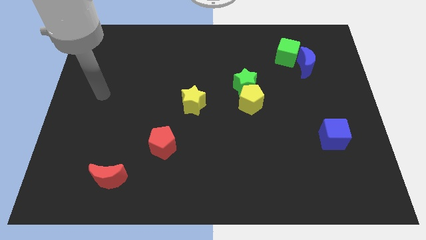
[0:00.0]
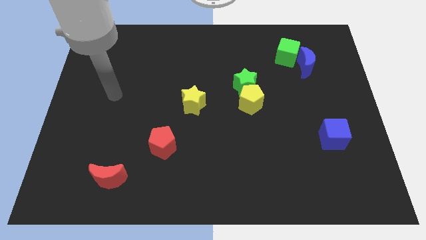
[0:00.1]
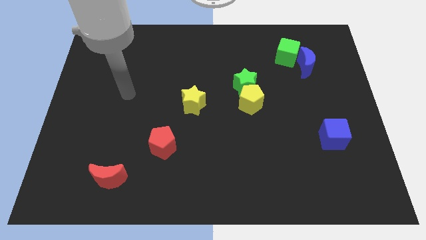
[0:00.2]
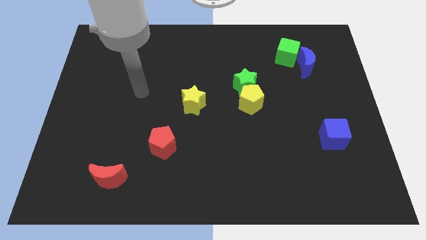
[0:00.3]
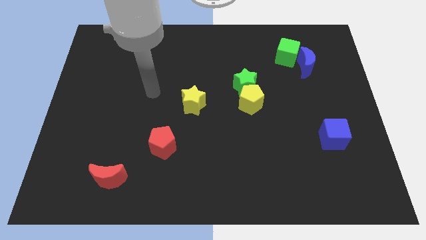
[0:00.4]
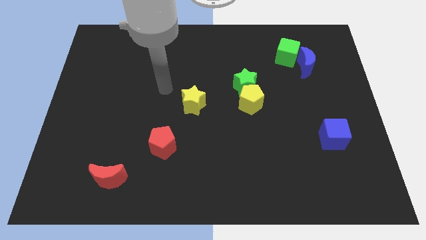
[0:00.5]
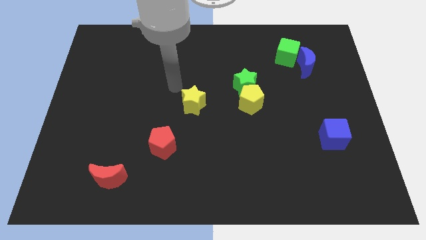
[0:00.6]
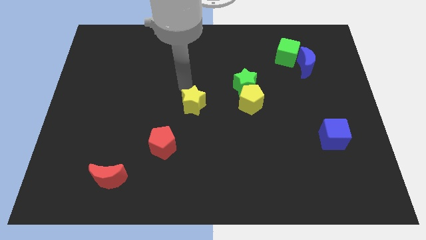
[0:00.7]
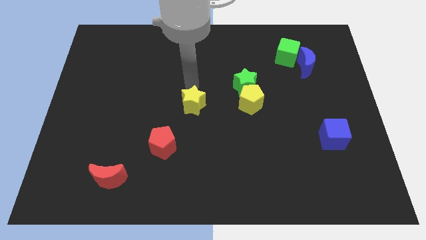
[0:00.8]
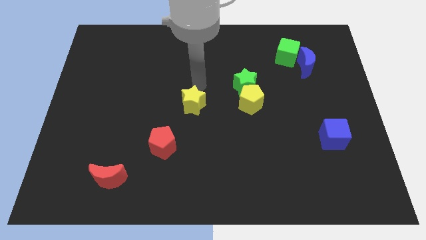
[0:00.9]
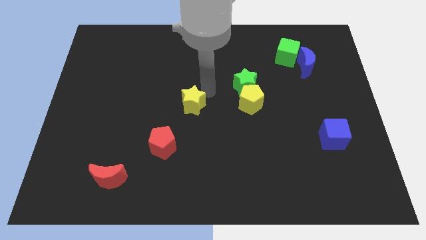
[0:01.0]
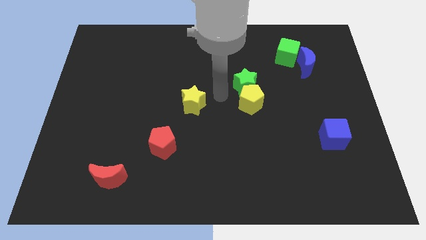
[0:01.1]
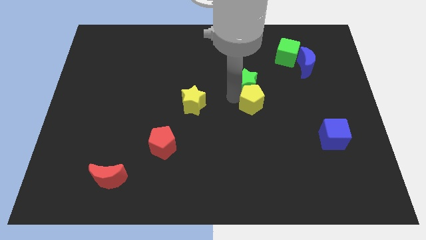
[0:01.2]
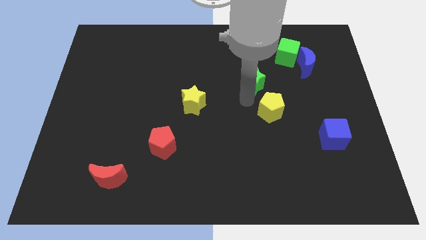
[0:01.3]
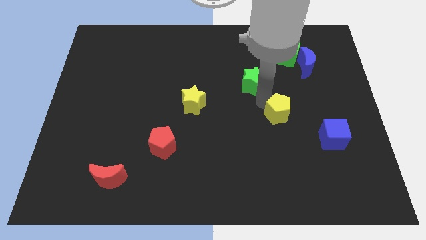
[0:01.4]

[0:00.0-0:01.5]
separate the green star from the yellow pentagon

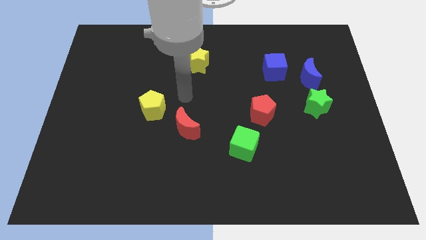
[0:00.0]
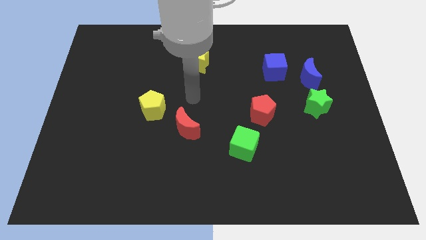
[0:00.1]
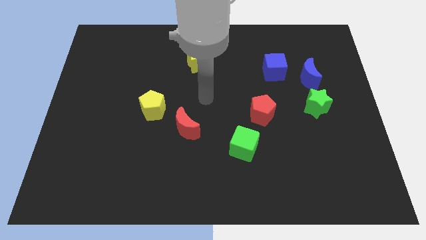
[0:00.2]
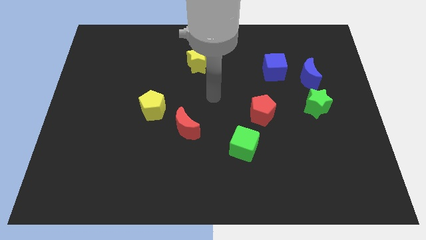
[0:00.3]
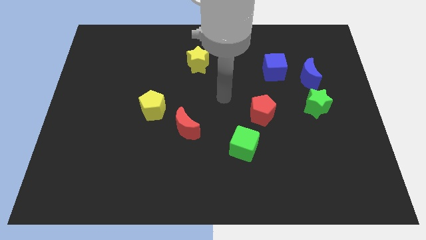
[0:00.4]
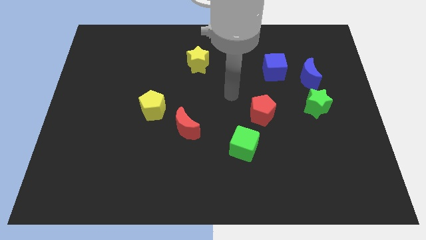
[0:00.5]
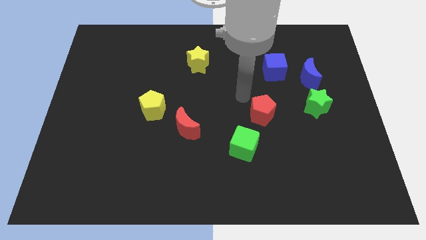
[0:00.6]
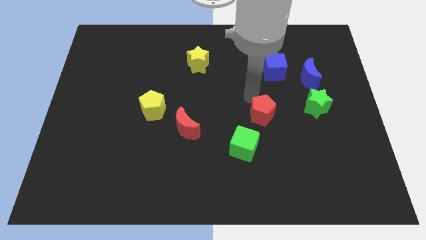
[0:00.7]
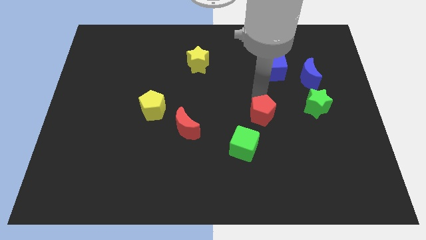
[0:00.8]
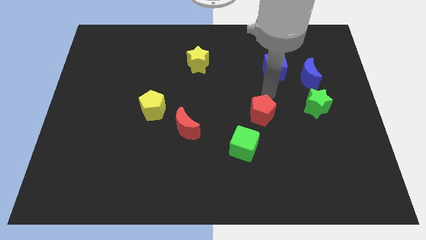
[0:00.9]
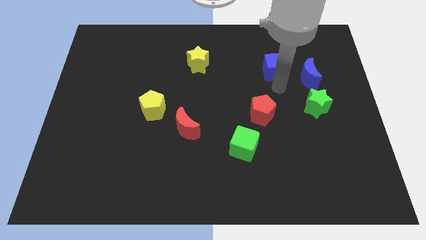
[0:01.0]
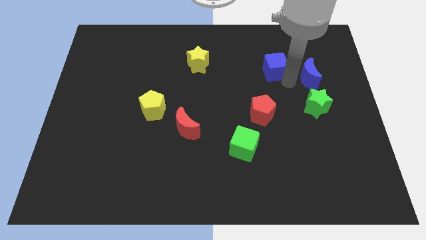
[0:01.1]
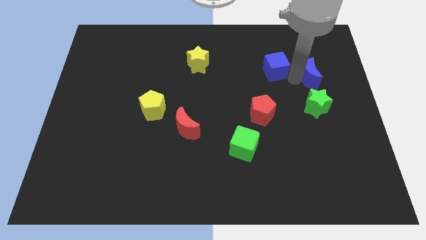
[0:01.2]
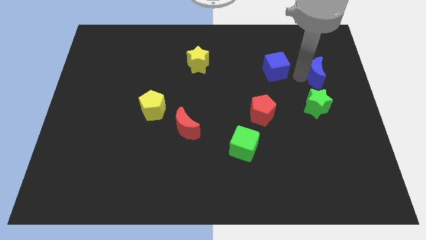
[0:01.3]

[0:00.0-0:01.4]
move the blue cube away from the blue moon

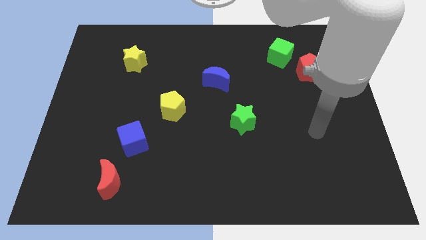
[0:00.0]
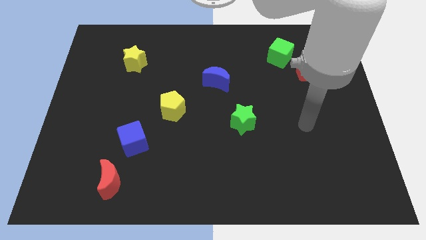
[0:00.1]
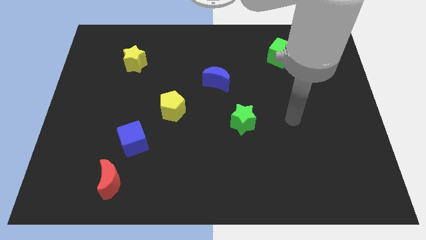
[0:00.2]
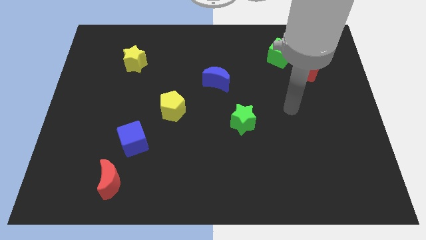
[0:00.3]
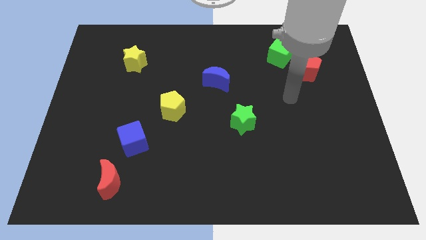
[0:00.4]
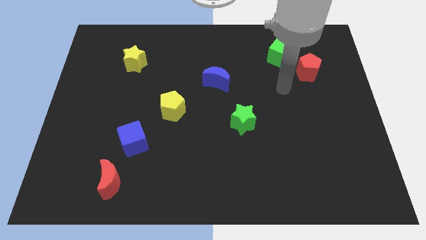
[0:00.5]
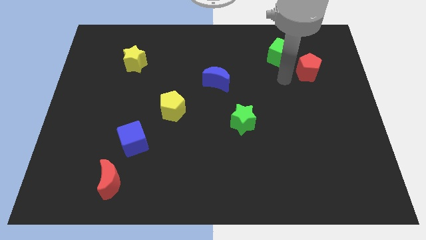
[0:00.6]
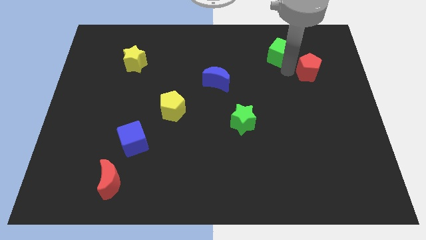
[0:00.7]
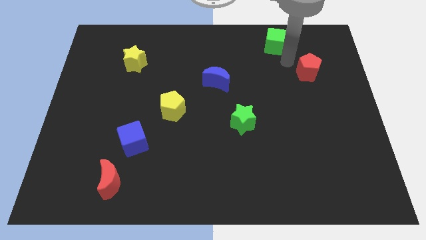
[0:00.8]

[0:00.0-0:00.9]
move the red pentagon away from the green cube

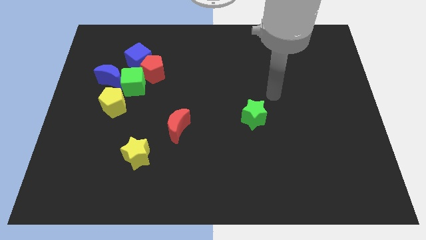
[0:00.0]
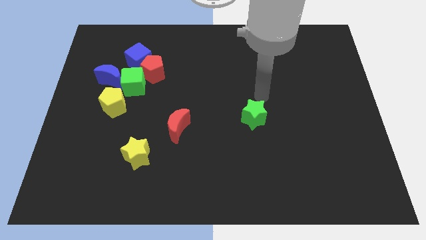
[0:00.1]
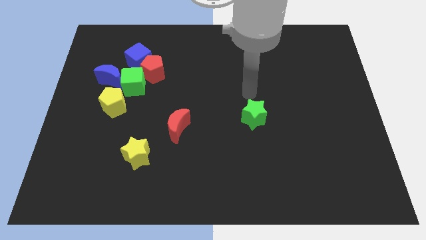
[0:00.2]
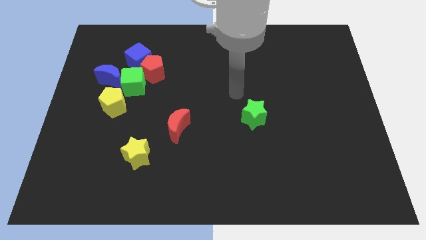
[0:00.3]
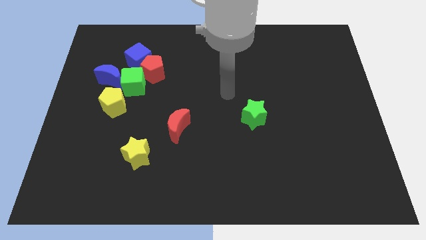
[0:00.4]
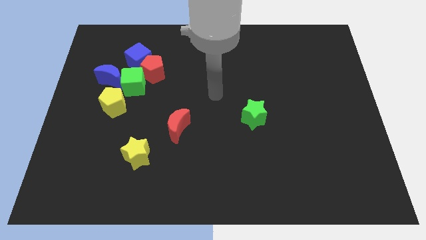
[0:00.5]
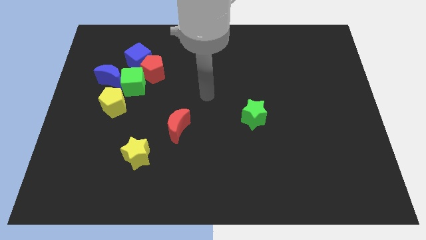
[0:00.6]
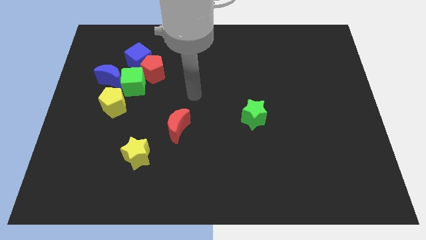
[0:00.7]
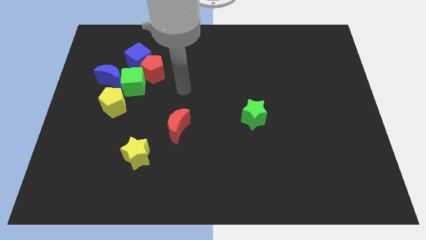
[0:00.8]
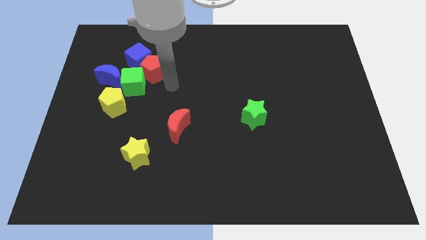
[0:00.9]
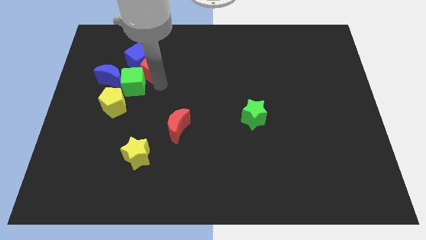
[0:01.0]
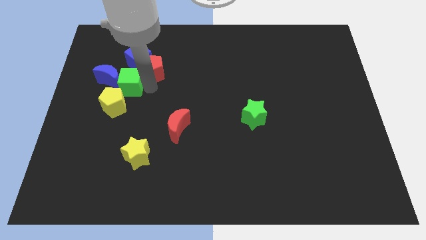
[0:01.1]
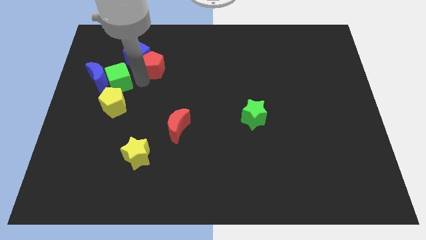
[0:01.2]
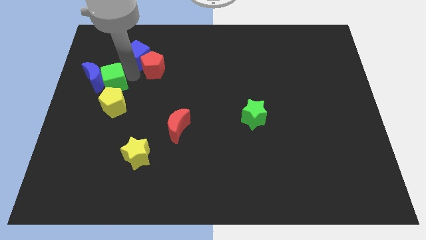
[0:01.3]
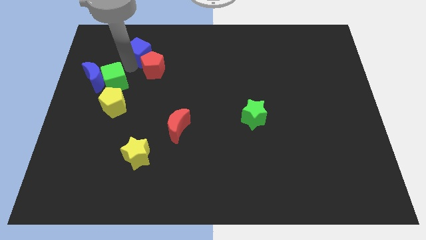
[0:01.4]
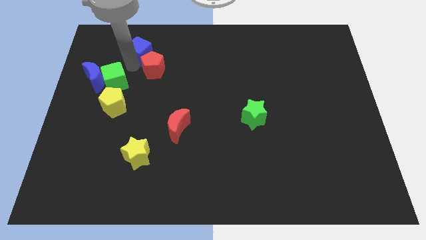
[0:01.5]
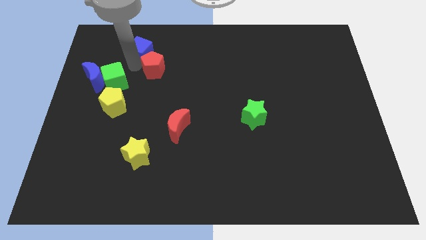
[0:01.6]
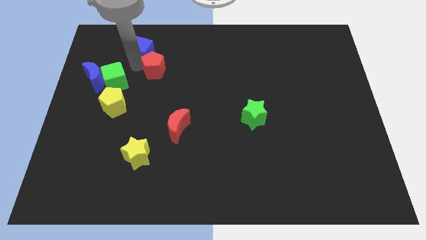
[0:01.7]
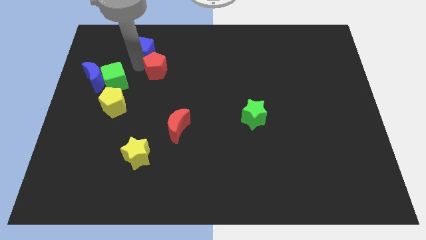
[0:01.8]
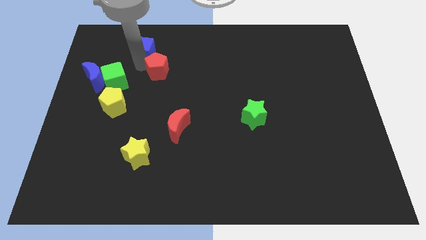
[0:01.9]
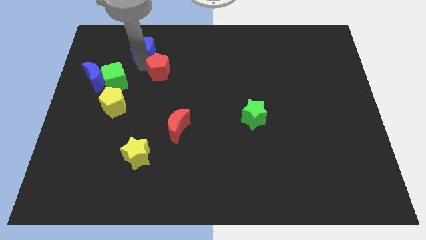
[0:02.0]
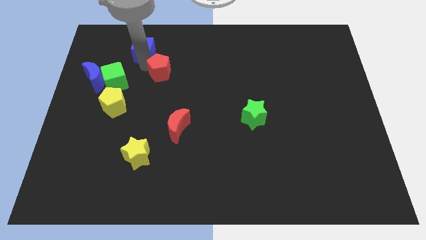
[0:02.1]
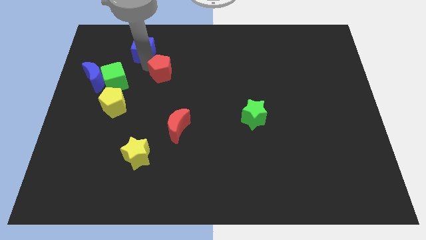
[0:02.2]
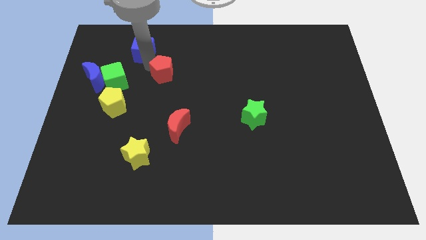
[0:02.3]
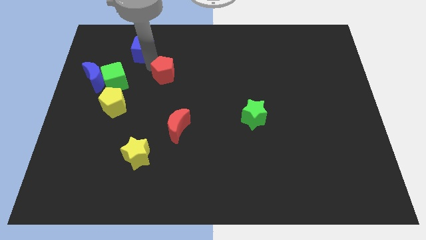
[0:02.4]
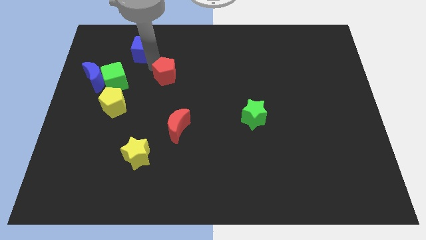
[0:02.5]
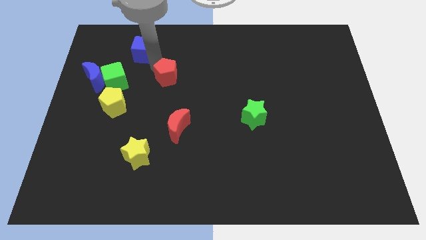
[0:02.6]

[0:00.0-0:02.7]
pull the red pentagon apart from the blue cube and green cube

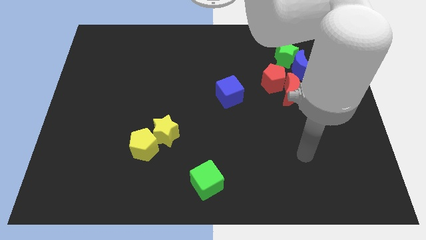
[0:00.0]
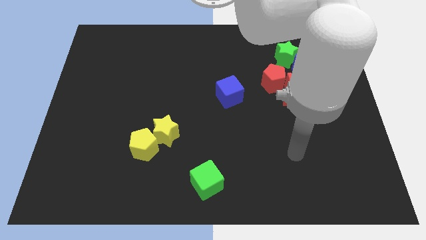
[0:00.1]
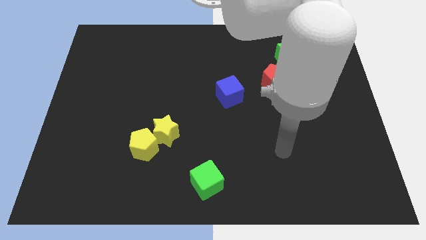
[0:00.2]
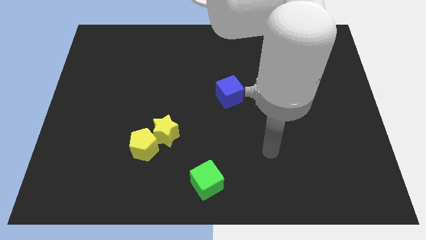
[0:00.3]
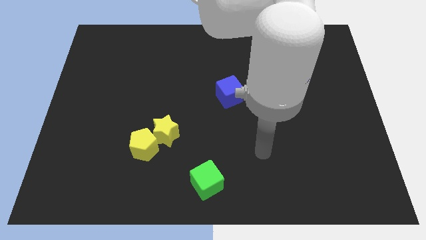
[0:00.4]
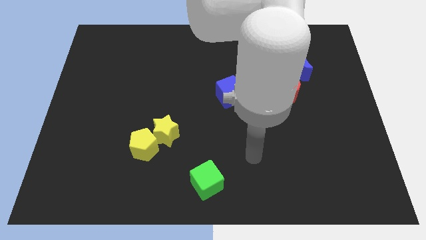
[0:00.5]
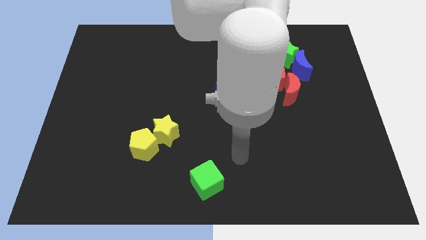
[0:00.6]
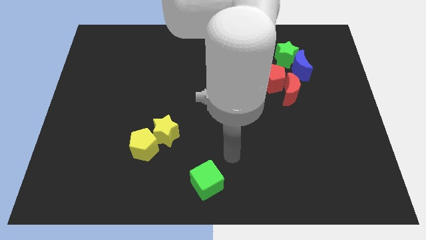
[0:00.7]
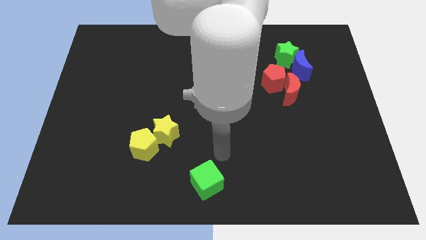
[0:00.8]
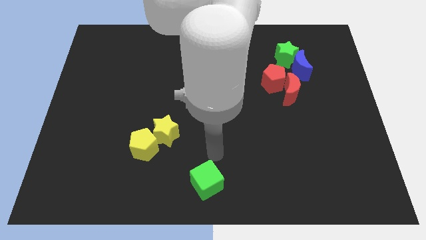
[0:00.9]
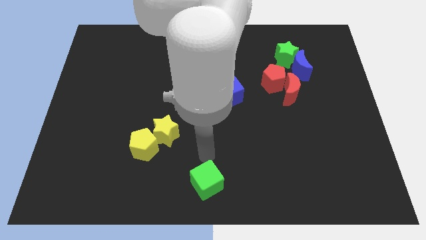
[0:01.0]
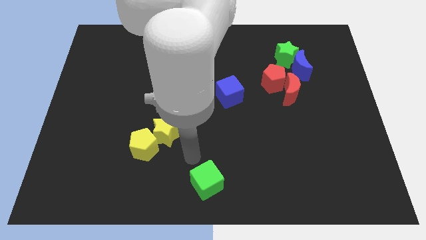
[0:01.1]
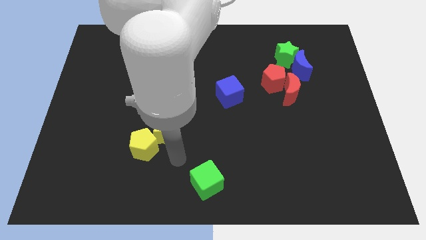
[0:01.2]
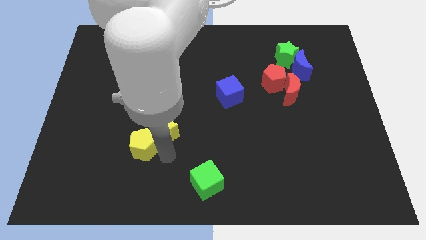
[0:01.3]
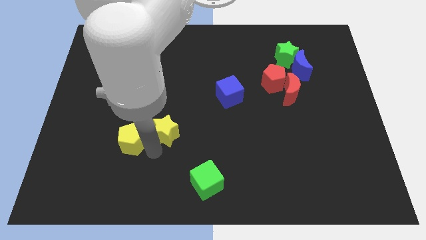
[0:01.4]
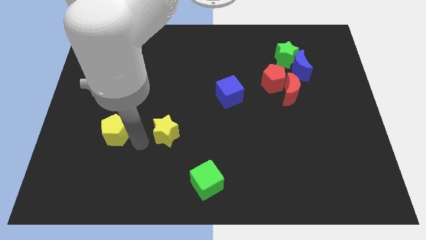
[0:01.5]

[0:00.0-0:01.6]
separate the yellow star from the yellow pentagon

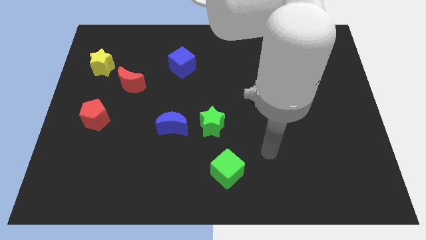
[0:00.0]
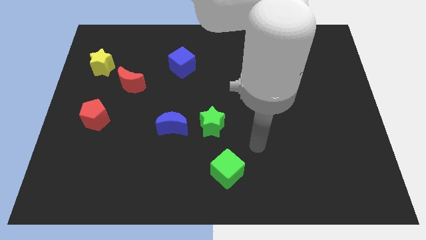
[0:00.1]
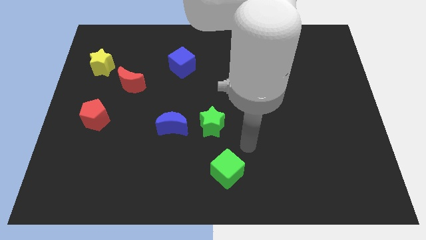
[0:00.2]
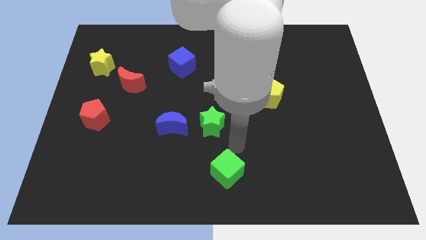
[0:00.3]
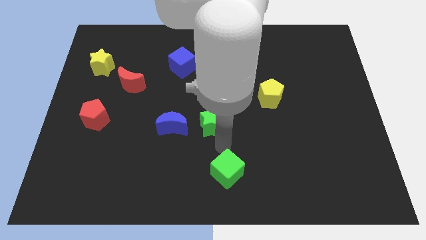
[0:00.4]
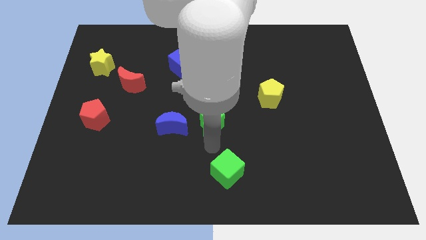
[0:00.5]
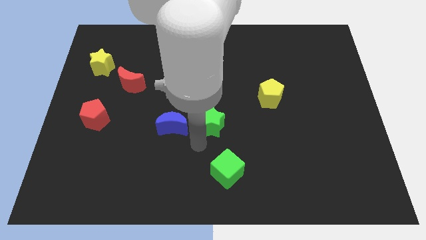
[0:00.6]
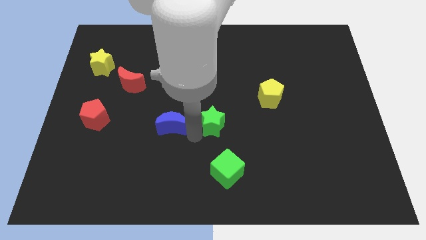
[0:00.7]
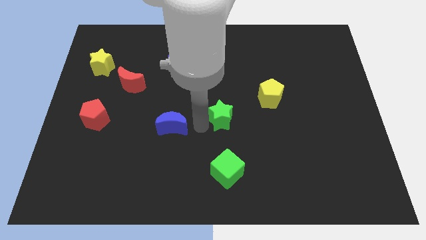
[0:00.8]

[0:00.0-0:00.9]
move the blue moon away from the green star

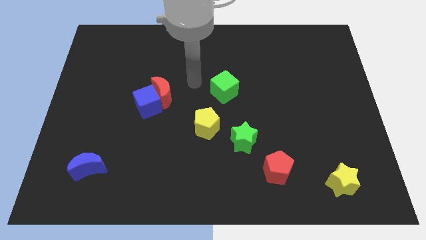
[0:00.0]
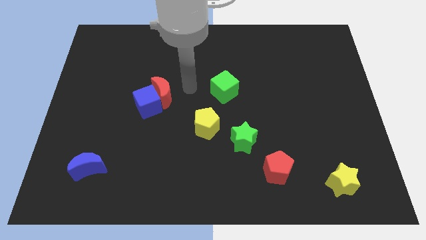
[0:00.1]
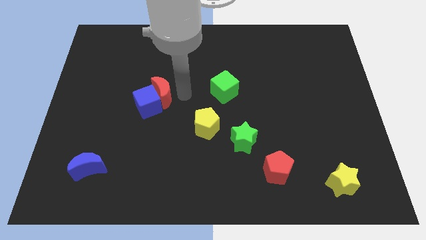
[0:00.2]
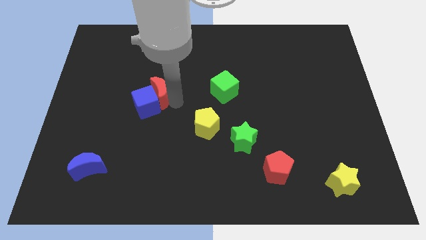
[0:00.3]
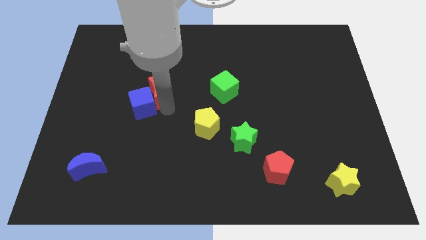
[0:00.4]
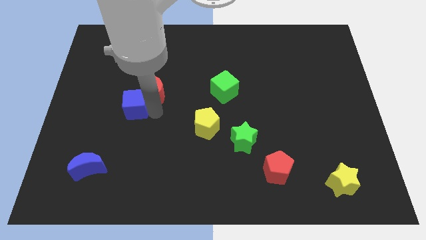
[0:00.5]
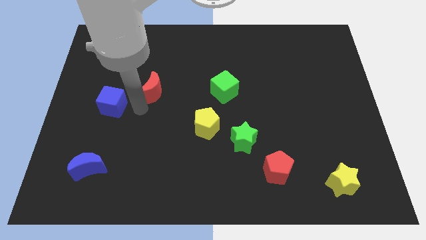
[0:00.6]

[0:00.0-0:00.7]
pull the red moon apart from the blue cube
